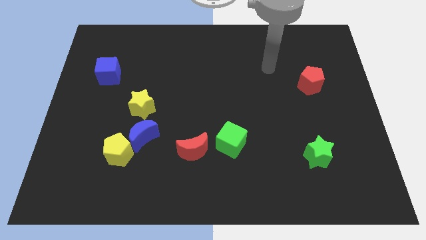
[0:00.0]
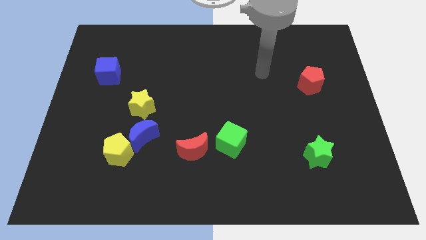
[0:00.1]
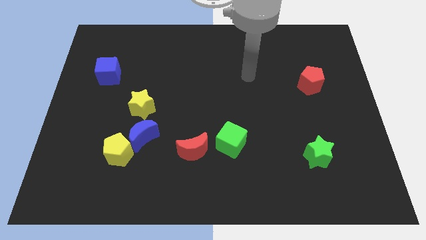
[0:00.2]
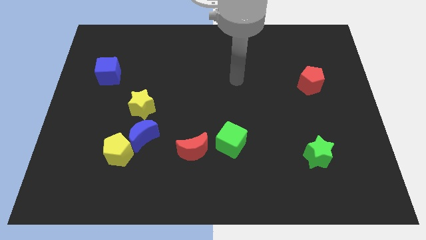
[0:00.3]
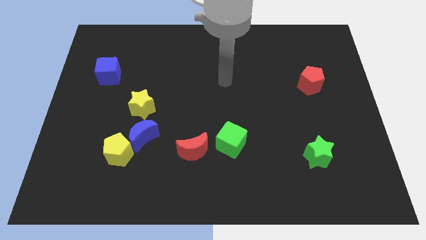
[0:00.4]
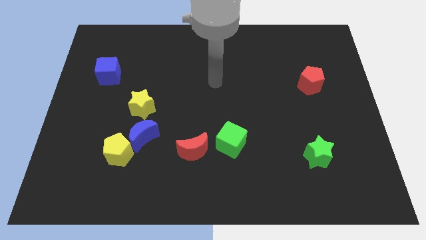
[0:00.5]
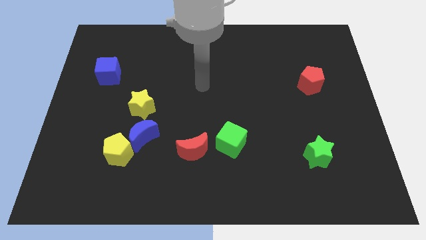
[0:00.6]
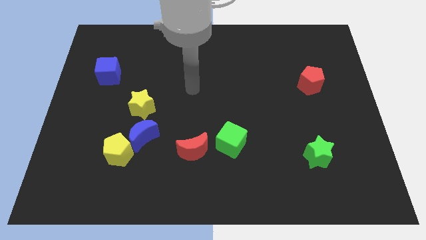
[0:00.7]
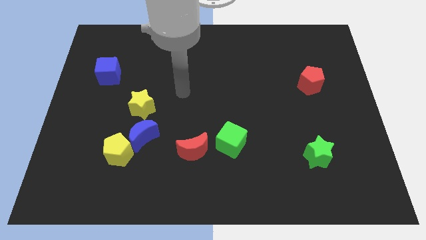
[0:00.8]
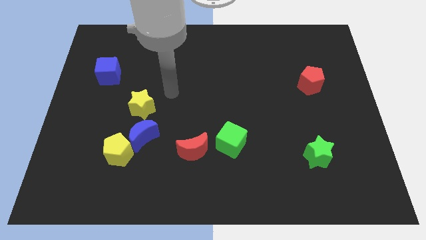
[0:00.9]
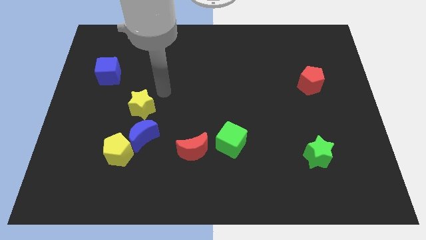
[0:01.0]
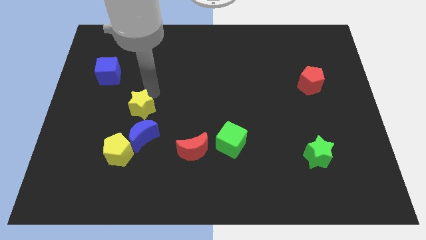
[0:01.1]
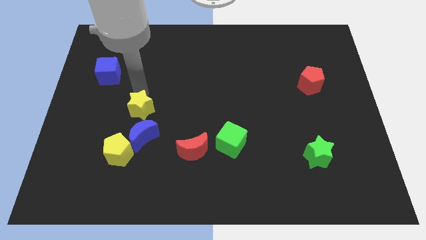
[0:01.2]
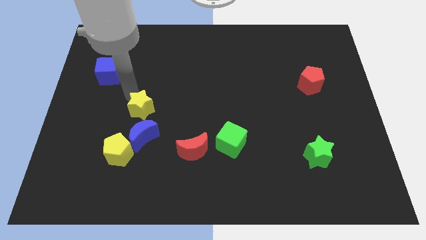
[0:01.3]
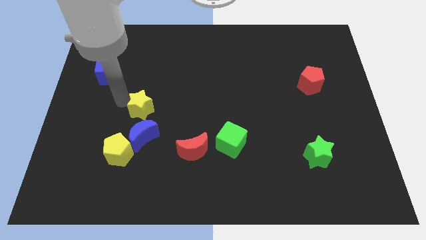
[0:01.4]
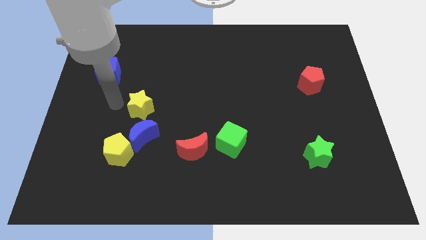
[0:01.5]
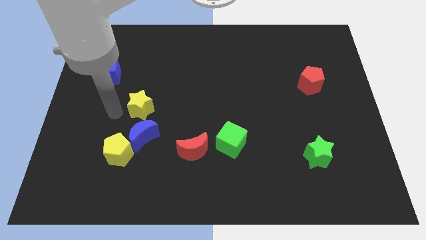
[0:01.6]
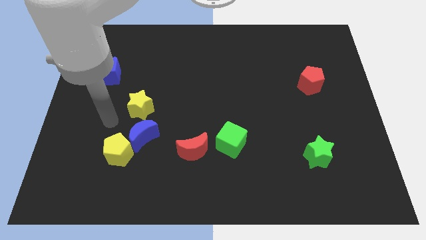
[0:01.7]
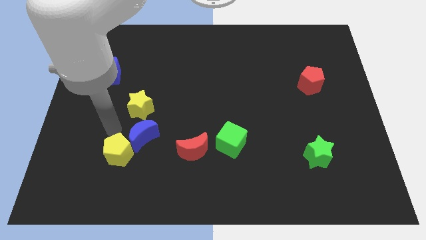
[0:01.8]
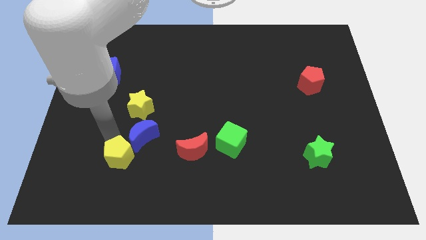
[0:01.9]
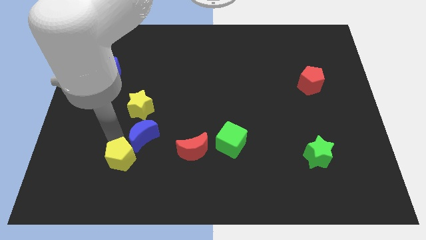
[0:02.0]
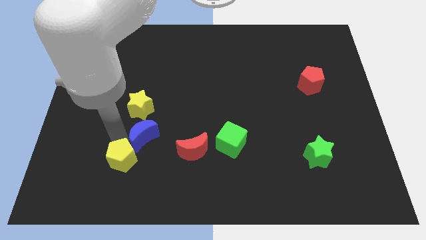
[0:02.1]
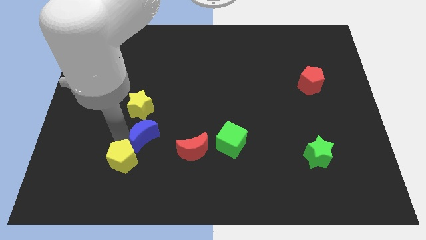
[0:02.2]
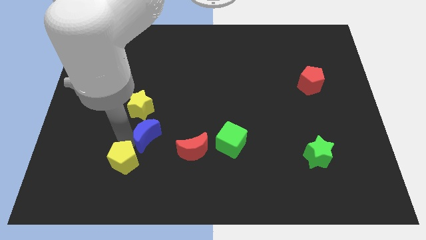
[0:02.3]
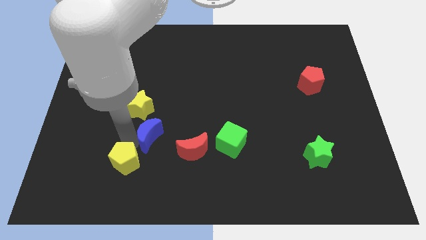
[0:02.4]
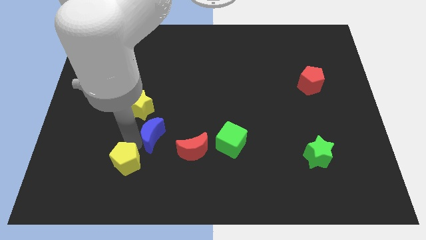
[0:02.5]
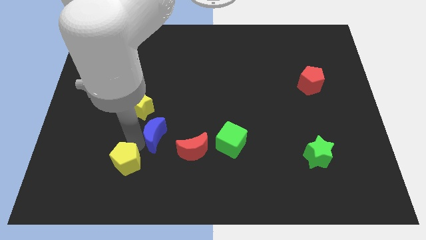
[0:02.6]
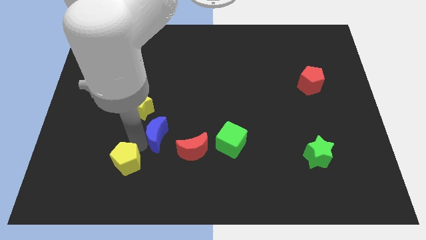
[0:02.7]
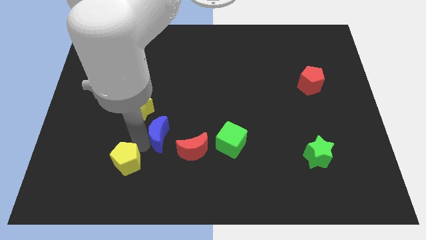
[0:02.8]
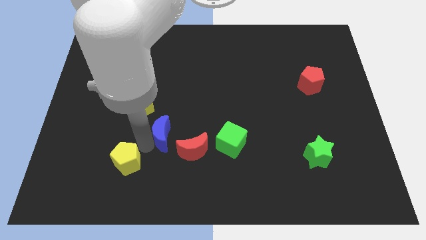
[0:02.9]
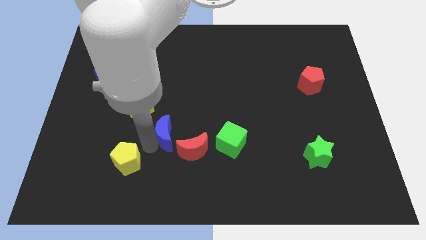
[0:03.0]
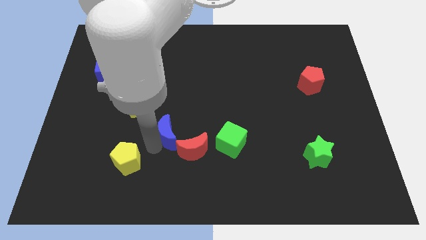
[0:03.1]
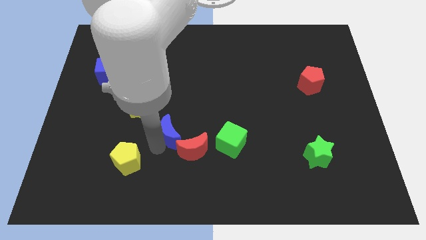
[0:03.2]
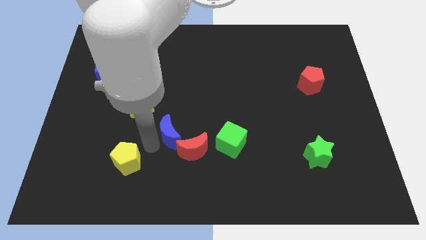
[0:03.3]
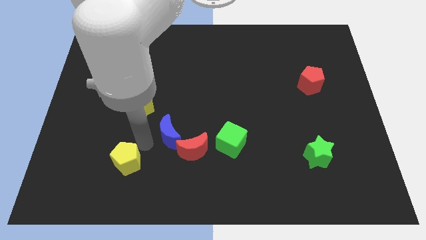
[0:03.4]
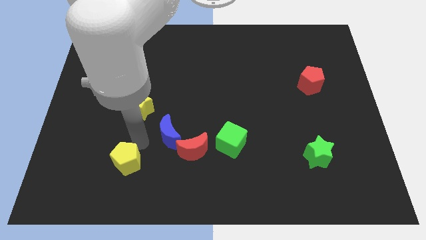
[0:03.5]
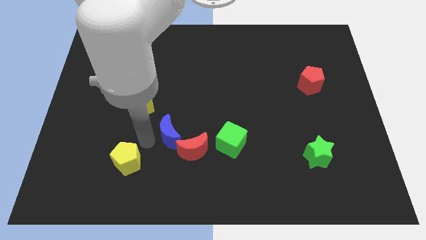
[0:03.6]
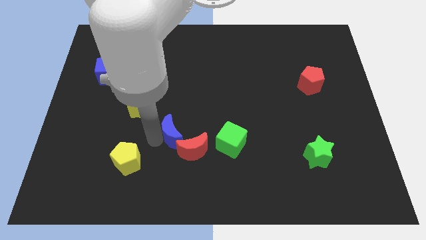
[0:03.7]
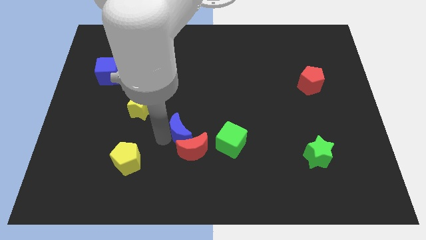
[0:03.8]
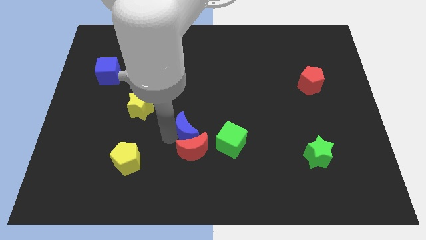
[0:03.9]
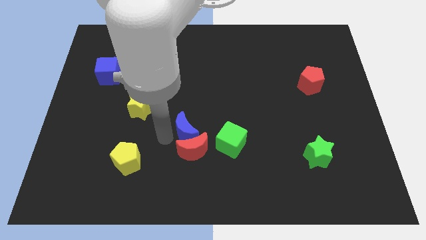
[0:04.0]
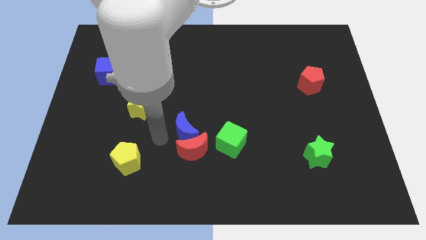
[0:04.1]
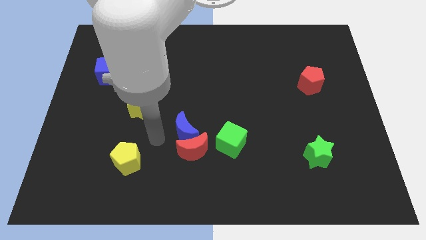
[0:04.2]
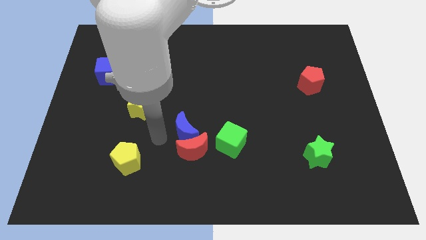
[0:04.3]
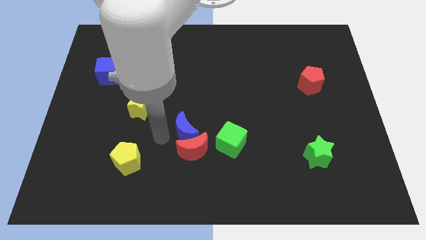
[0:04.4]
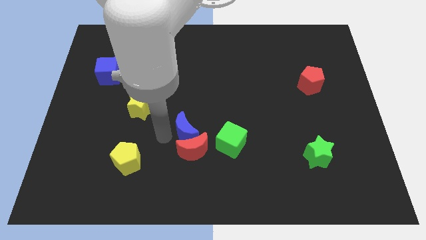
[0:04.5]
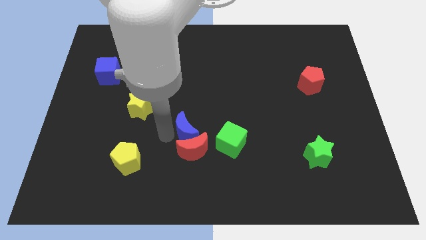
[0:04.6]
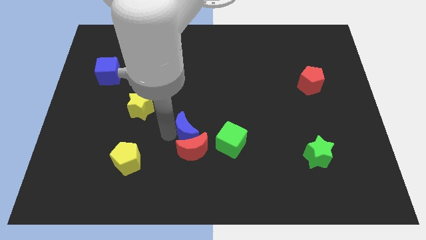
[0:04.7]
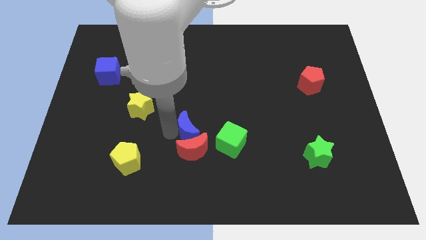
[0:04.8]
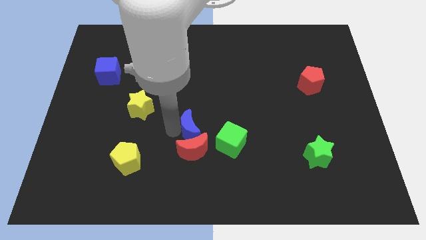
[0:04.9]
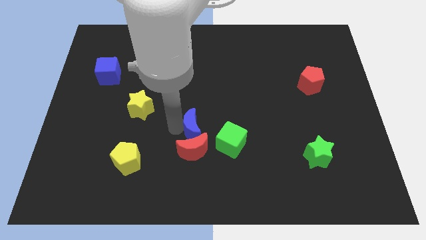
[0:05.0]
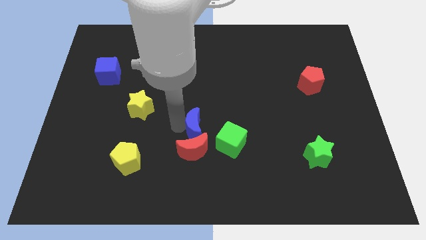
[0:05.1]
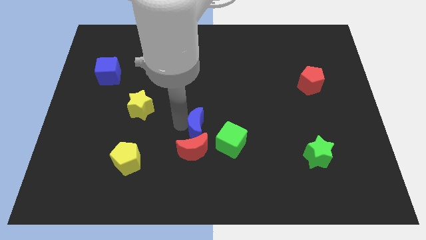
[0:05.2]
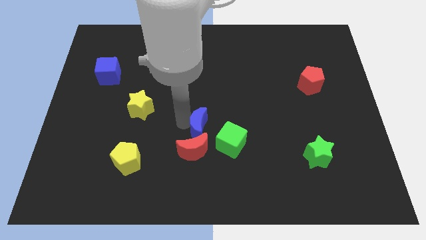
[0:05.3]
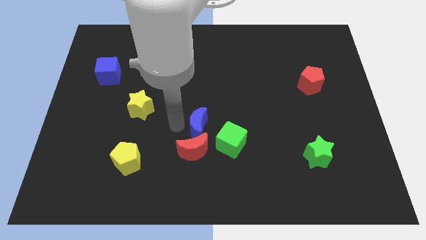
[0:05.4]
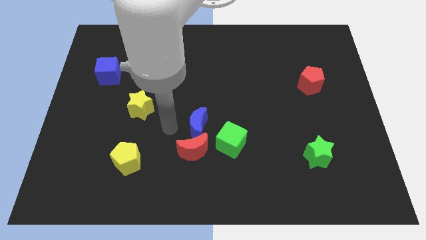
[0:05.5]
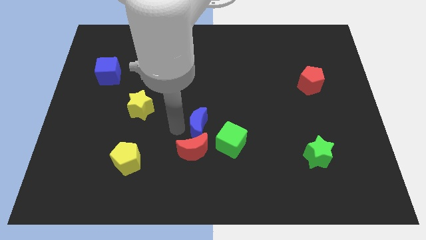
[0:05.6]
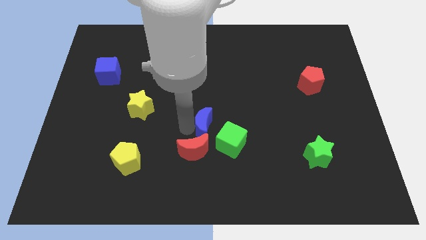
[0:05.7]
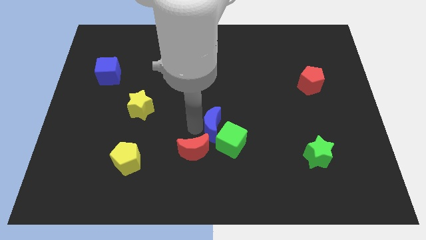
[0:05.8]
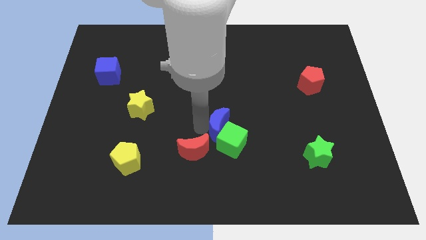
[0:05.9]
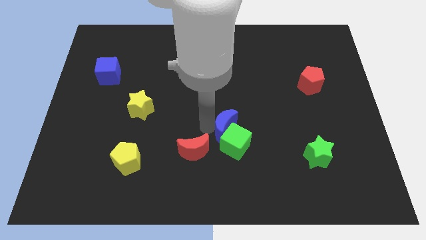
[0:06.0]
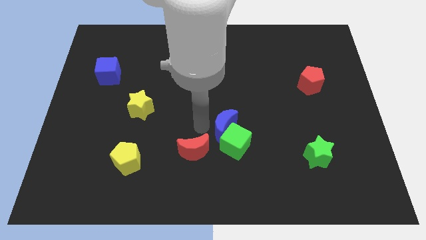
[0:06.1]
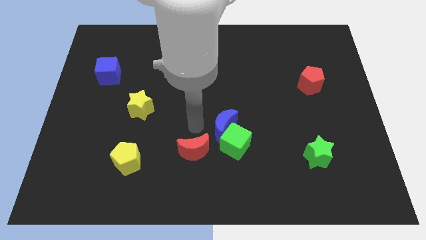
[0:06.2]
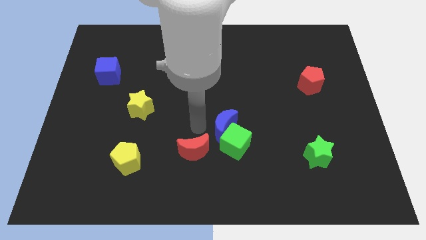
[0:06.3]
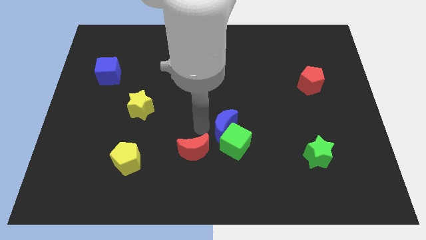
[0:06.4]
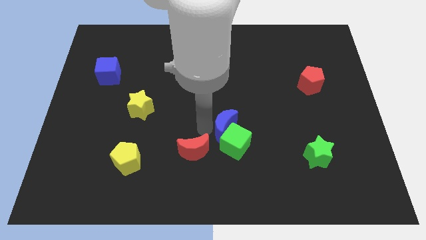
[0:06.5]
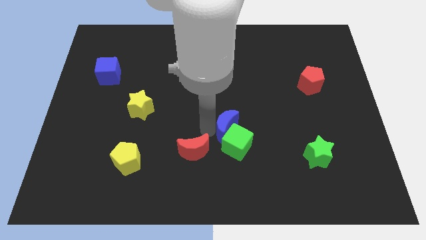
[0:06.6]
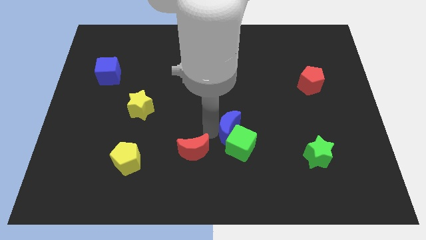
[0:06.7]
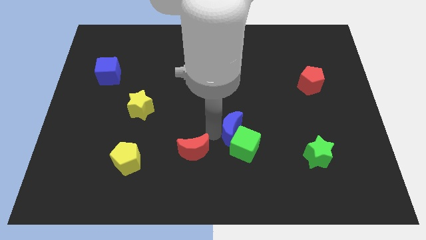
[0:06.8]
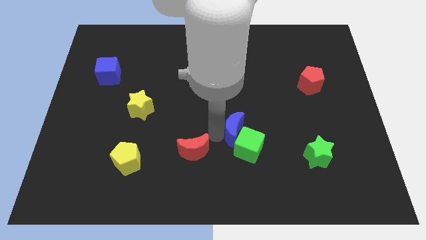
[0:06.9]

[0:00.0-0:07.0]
push the blue moon to the right

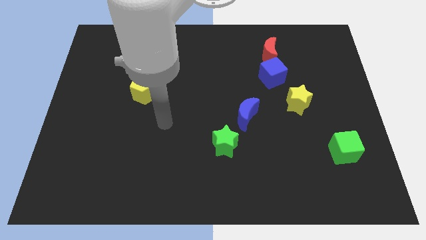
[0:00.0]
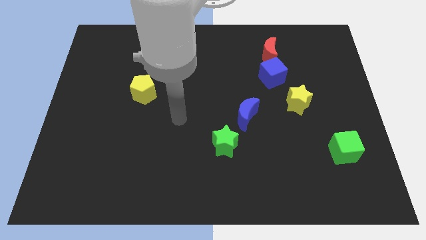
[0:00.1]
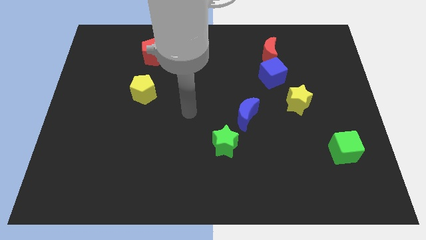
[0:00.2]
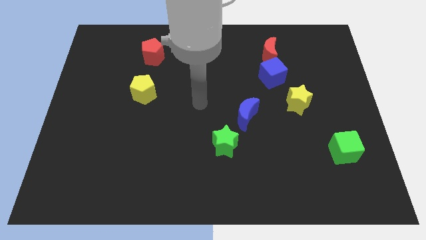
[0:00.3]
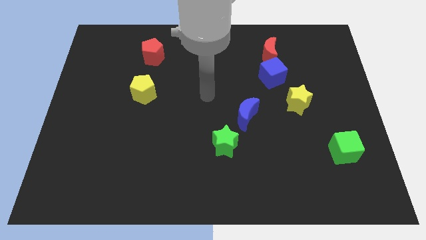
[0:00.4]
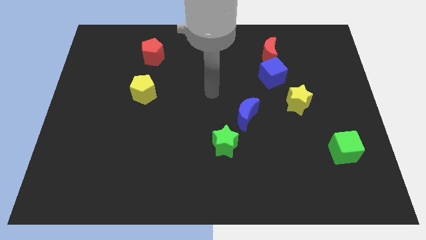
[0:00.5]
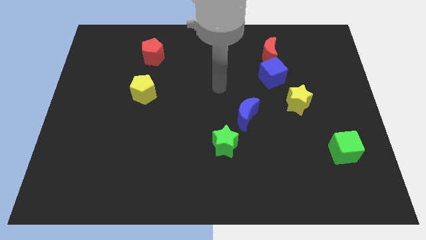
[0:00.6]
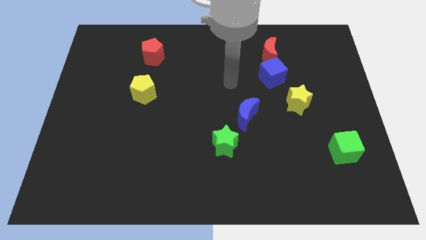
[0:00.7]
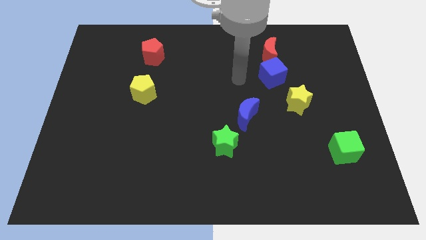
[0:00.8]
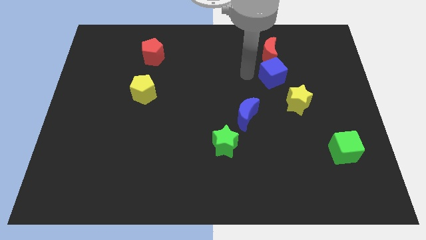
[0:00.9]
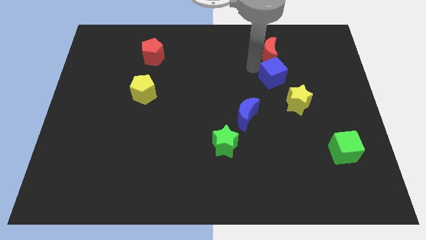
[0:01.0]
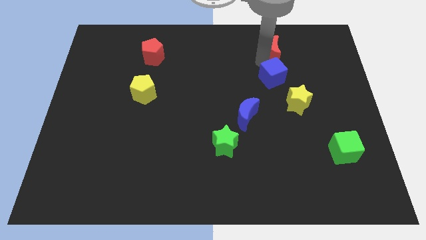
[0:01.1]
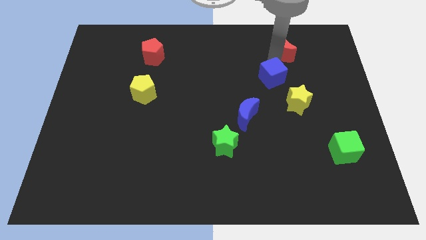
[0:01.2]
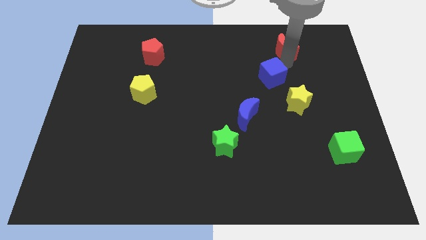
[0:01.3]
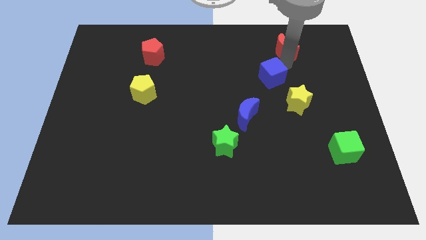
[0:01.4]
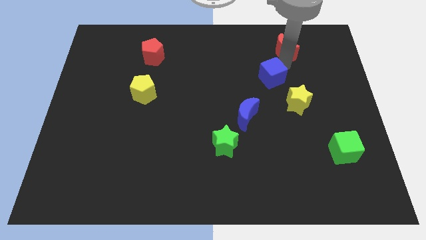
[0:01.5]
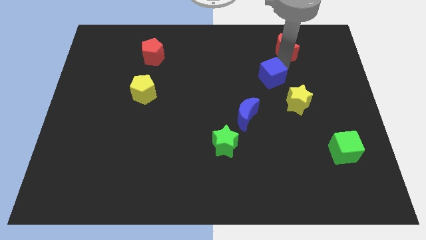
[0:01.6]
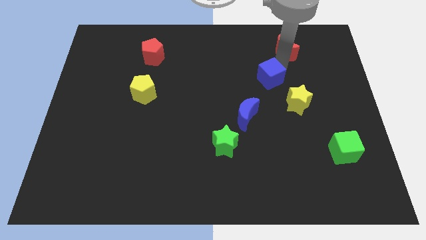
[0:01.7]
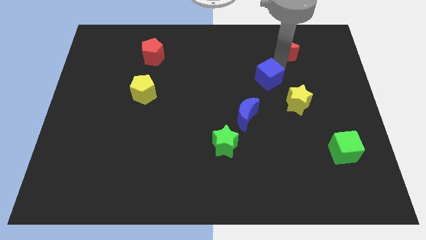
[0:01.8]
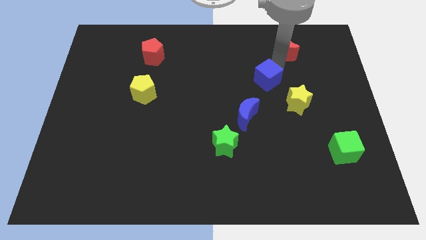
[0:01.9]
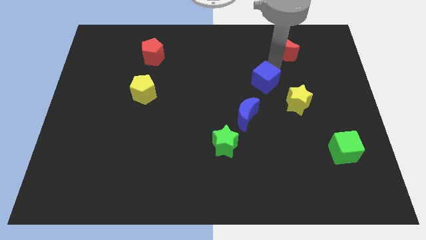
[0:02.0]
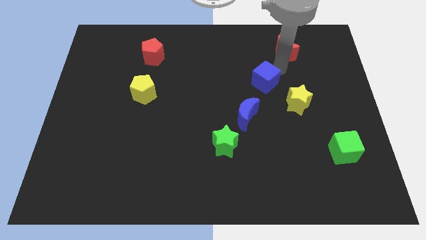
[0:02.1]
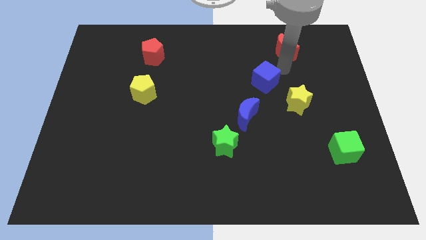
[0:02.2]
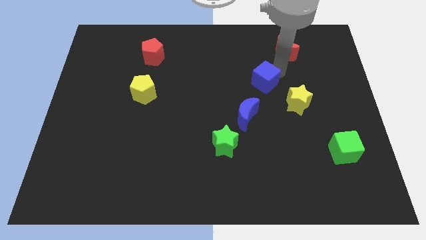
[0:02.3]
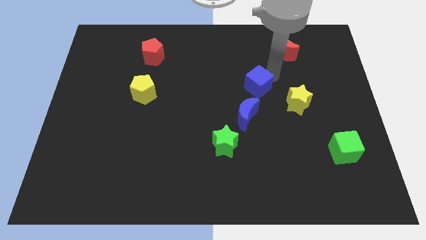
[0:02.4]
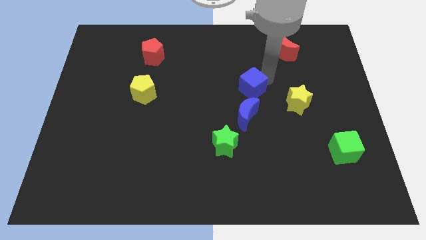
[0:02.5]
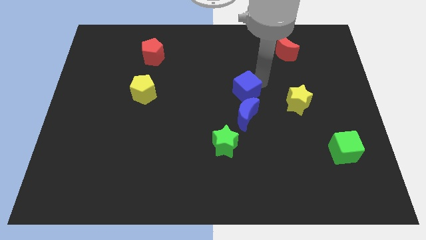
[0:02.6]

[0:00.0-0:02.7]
slightly slide the blue cube diagonally downwards and left
